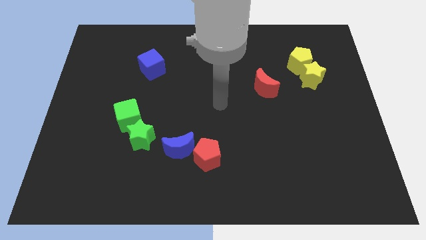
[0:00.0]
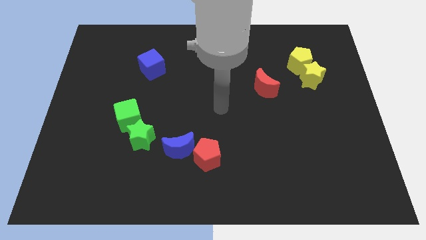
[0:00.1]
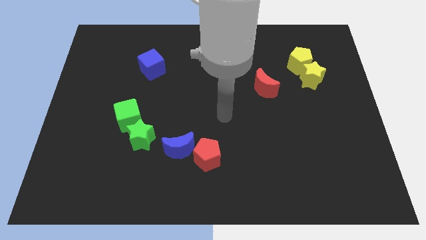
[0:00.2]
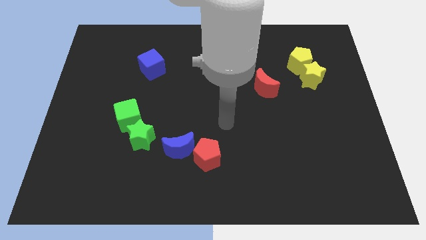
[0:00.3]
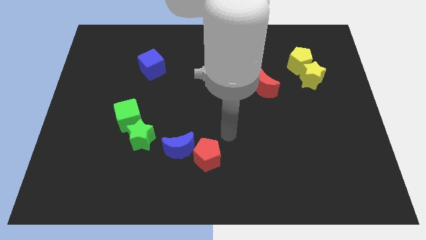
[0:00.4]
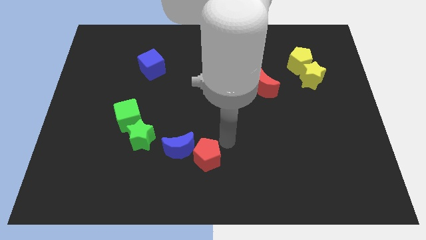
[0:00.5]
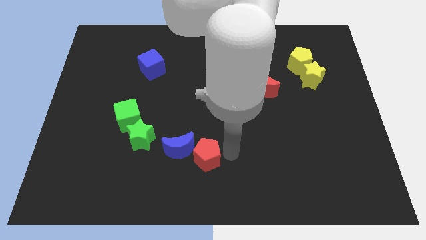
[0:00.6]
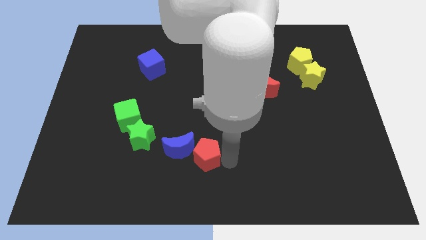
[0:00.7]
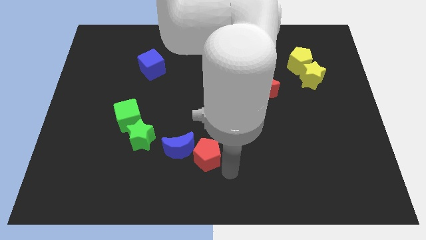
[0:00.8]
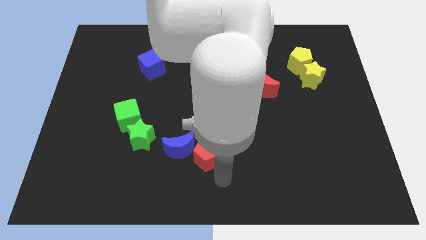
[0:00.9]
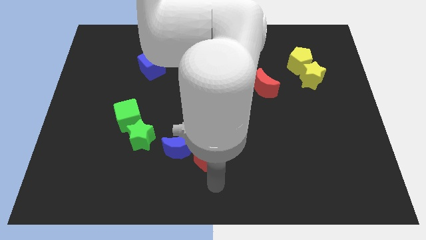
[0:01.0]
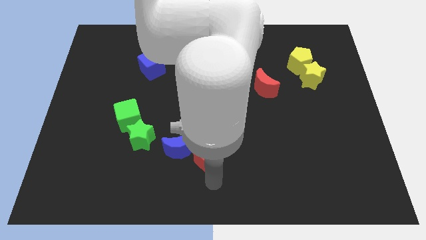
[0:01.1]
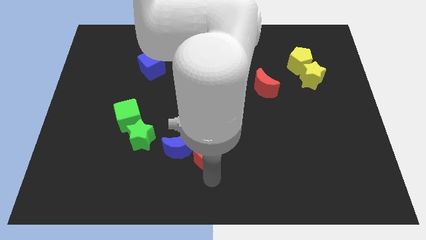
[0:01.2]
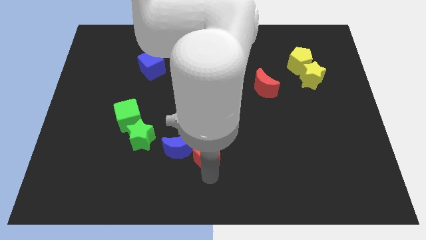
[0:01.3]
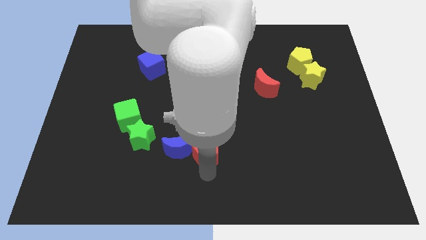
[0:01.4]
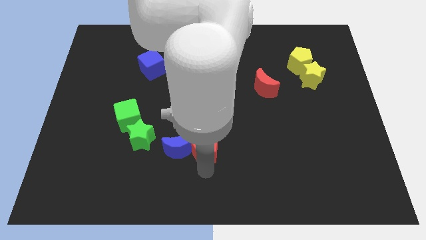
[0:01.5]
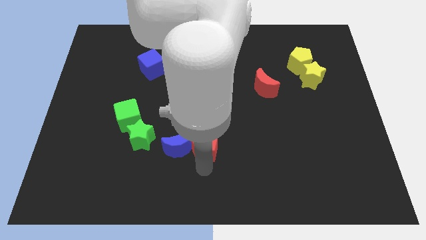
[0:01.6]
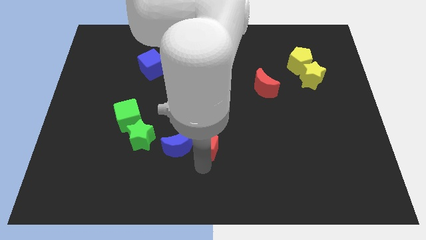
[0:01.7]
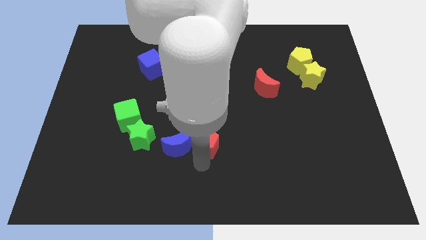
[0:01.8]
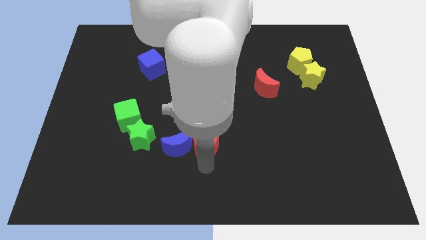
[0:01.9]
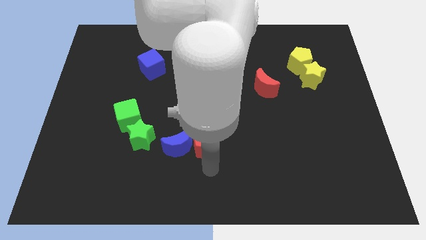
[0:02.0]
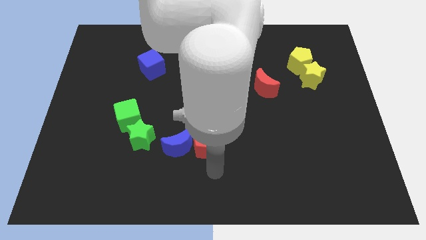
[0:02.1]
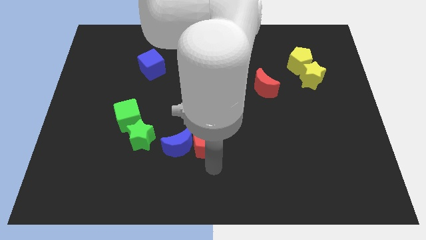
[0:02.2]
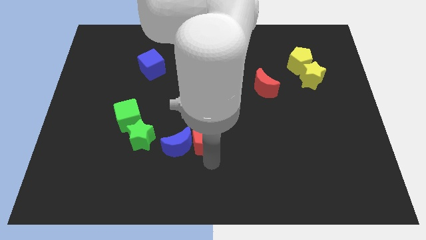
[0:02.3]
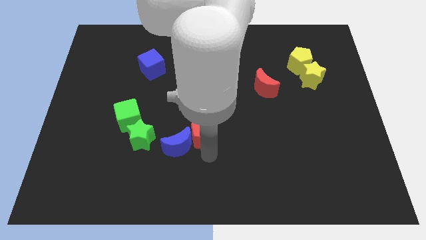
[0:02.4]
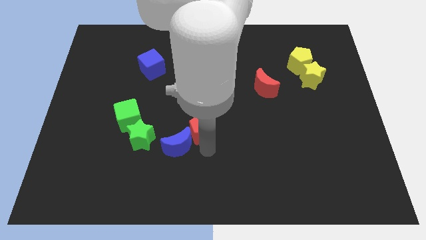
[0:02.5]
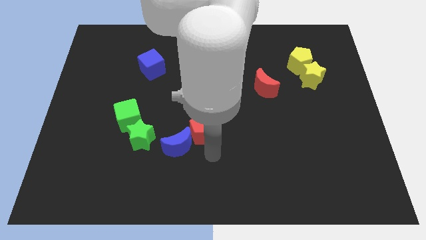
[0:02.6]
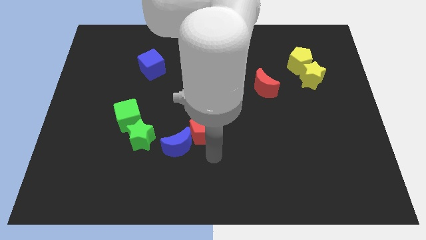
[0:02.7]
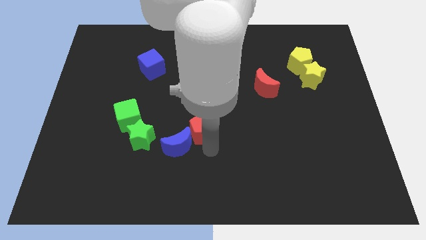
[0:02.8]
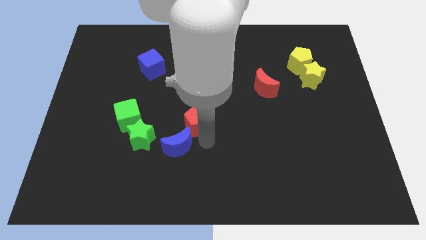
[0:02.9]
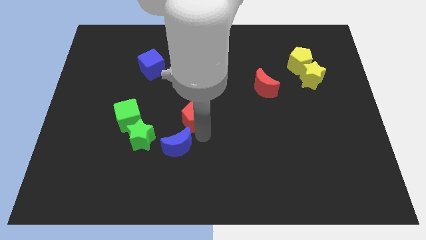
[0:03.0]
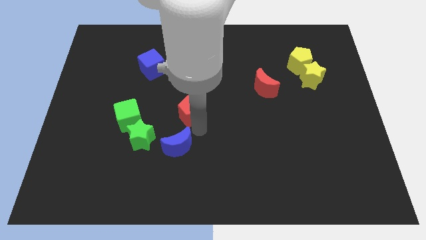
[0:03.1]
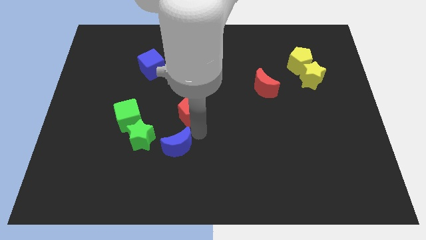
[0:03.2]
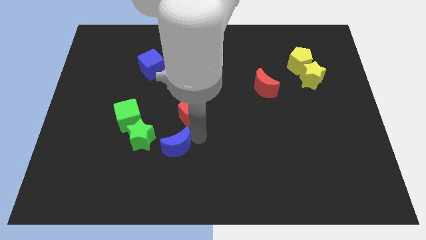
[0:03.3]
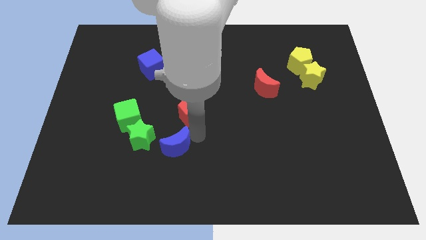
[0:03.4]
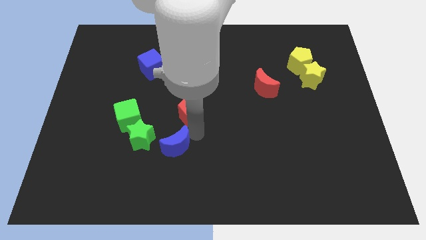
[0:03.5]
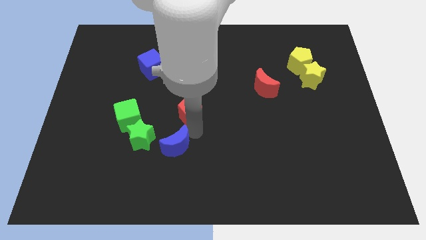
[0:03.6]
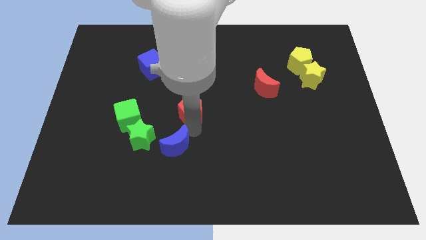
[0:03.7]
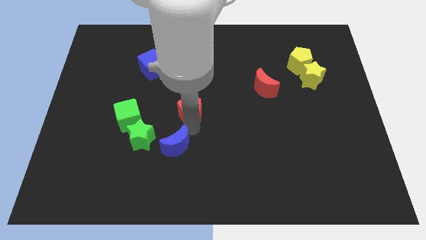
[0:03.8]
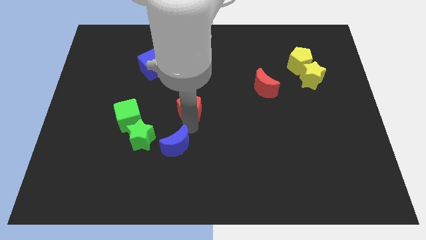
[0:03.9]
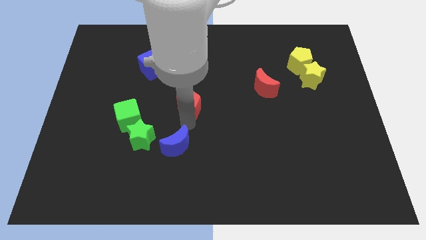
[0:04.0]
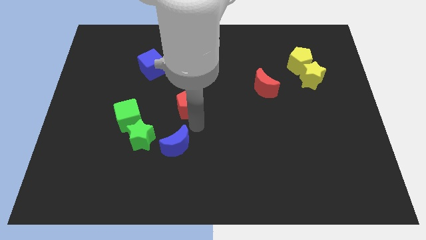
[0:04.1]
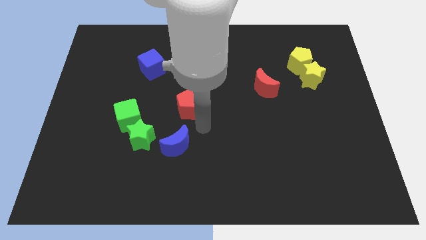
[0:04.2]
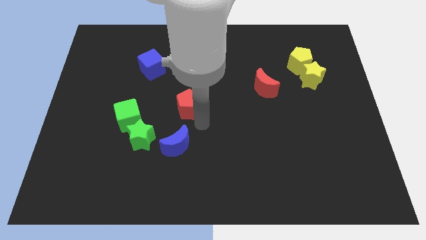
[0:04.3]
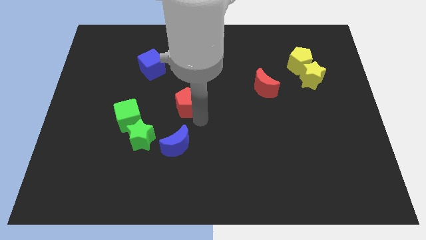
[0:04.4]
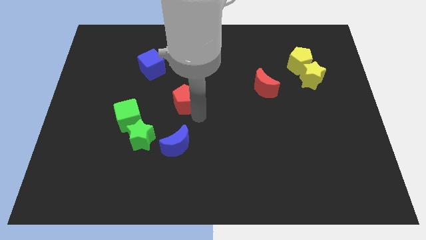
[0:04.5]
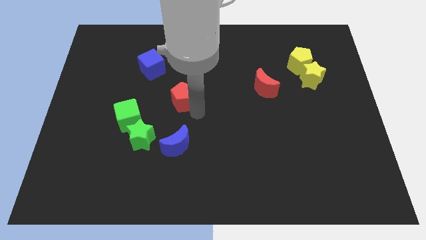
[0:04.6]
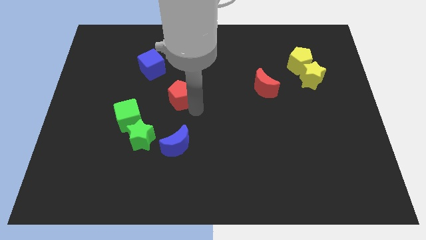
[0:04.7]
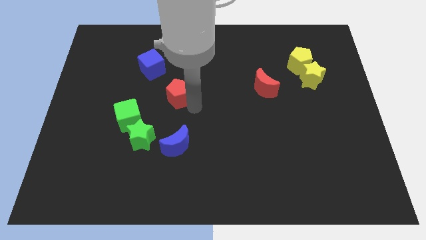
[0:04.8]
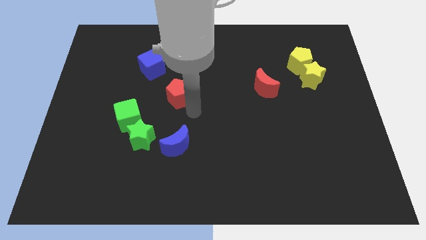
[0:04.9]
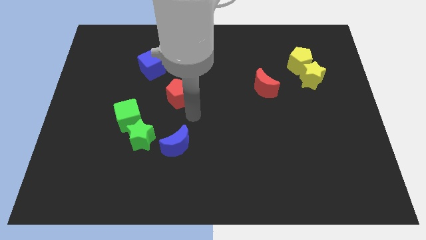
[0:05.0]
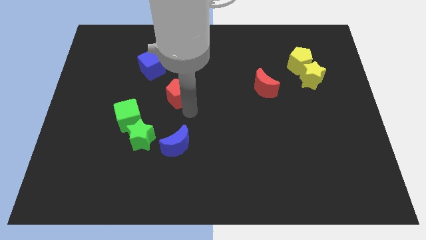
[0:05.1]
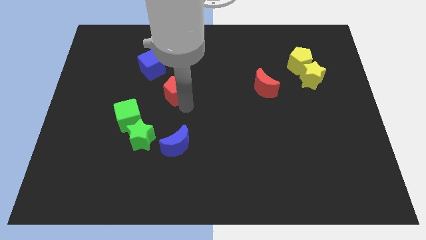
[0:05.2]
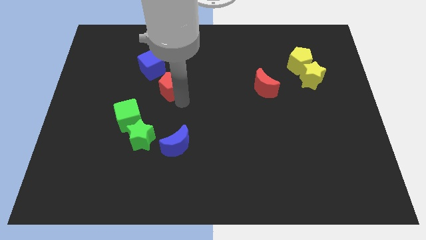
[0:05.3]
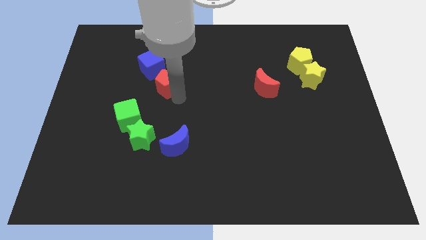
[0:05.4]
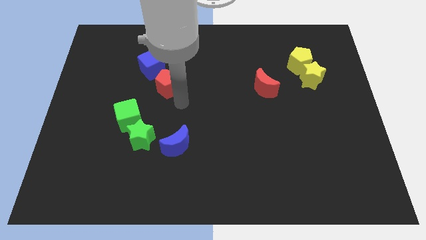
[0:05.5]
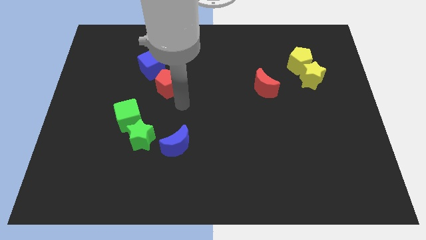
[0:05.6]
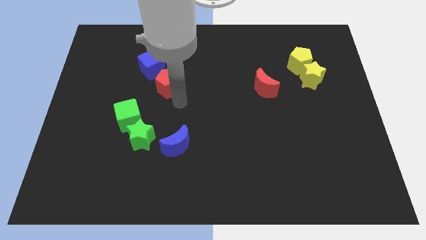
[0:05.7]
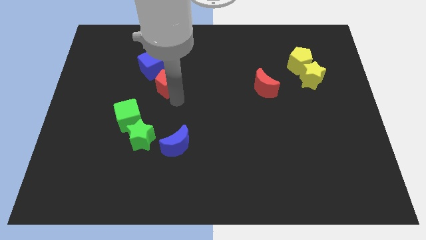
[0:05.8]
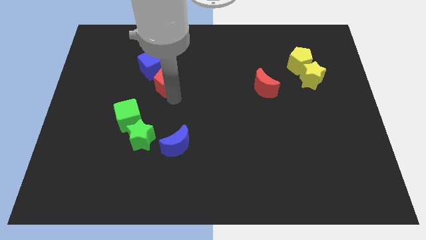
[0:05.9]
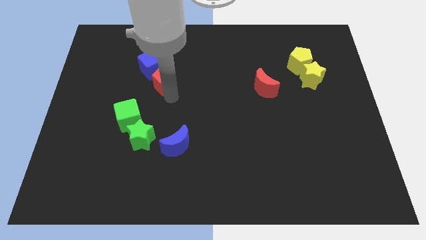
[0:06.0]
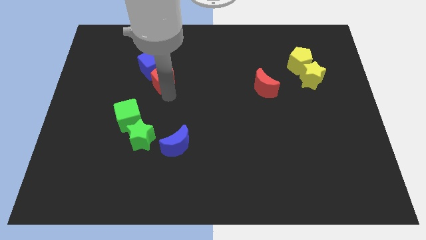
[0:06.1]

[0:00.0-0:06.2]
move the red pentagon close to the blue cube

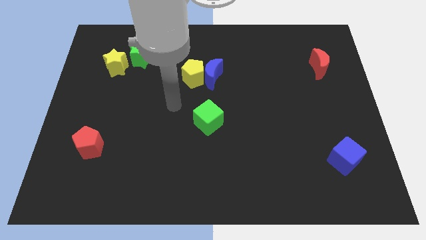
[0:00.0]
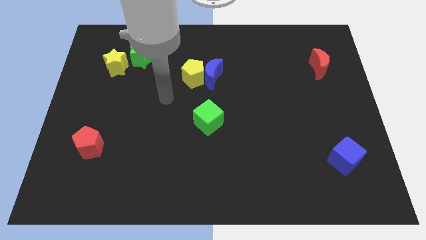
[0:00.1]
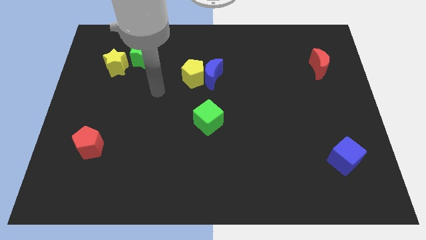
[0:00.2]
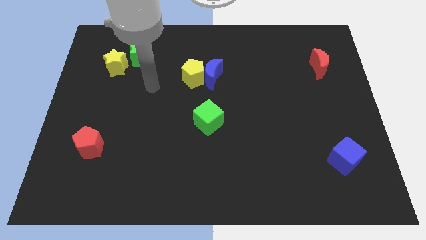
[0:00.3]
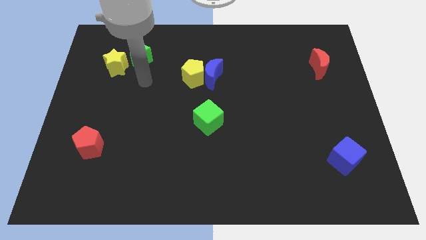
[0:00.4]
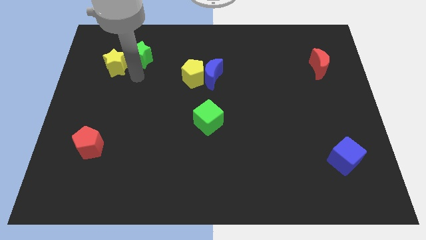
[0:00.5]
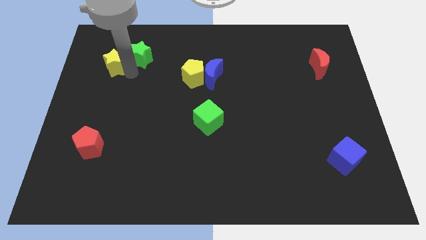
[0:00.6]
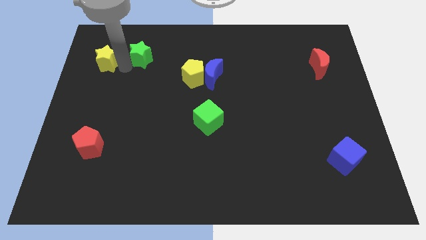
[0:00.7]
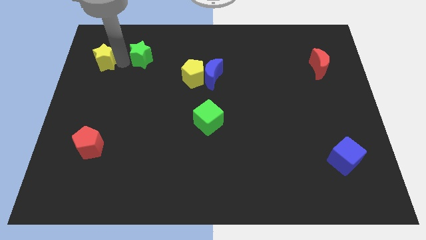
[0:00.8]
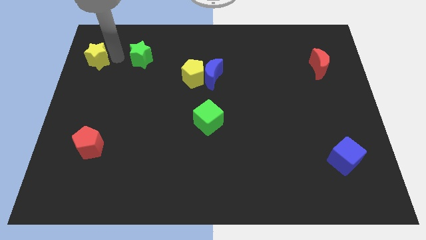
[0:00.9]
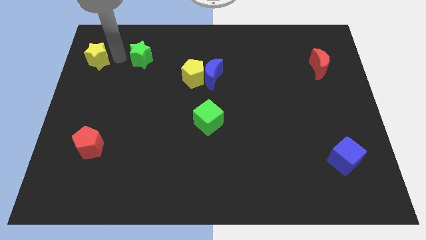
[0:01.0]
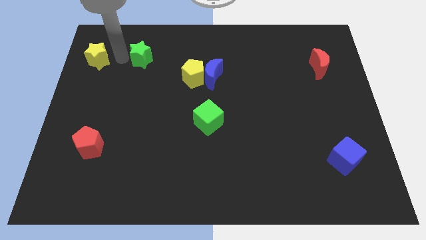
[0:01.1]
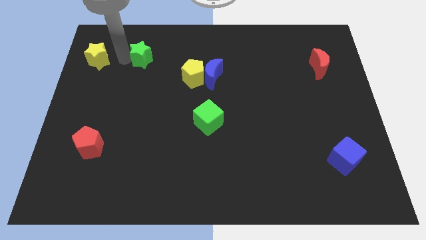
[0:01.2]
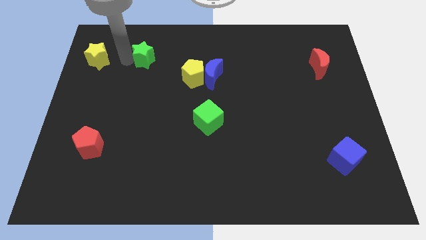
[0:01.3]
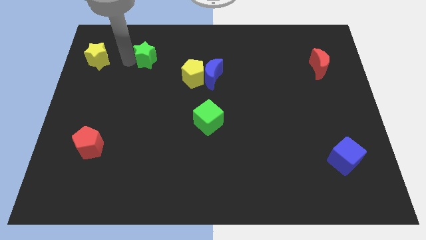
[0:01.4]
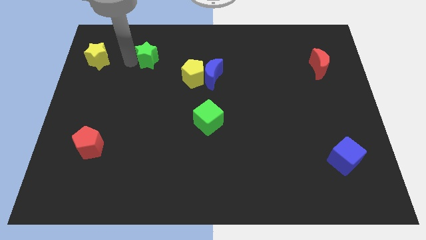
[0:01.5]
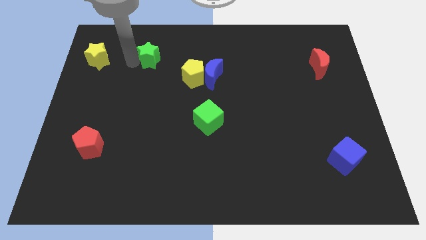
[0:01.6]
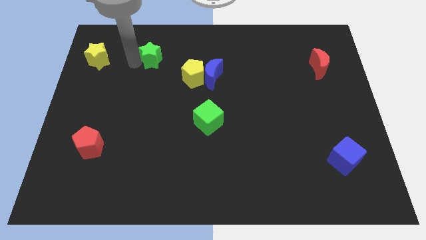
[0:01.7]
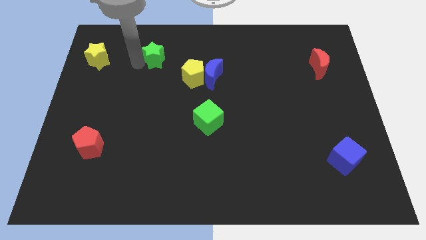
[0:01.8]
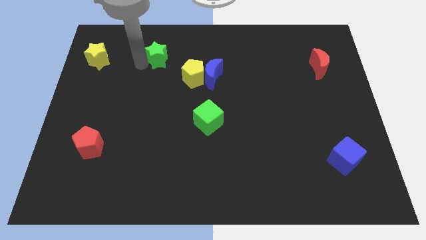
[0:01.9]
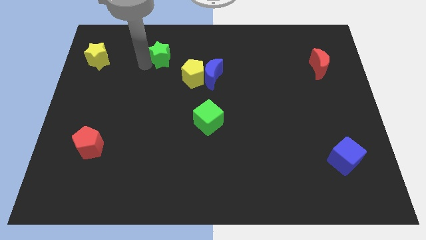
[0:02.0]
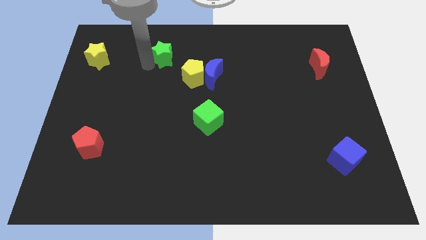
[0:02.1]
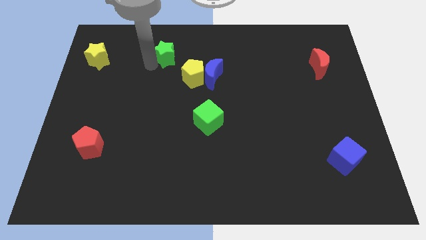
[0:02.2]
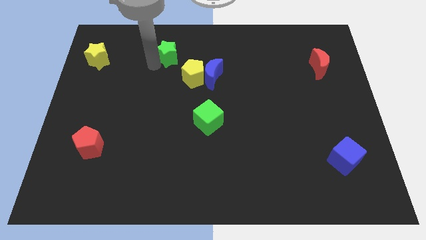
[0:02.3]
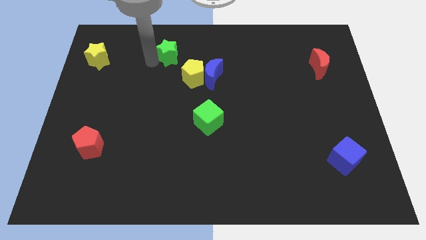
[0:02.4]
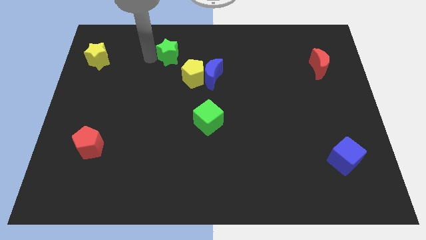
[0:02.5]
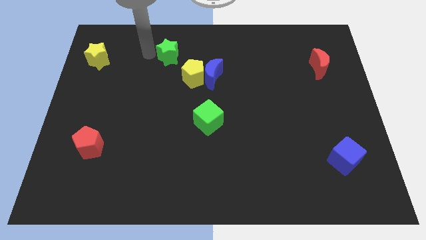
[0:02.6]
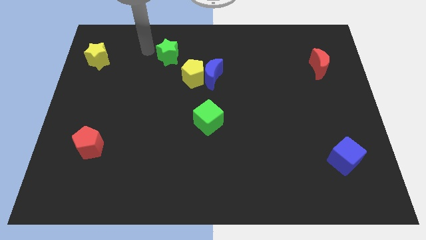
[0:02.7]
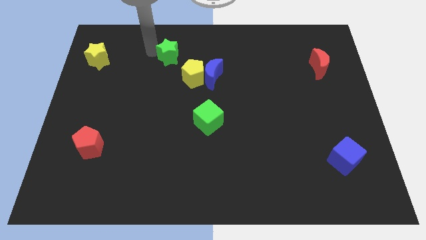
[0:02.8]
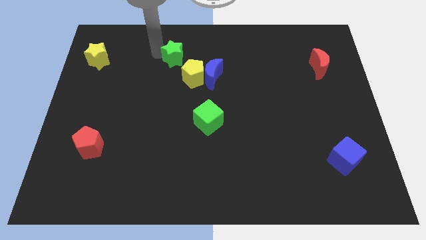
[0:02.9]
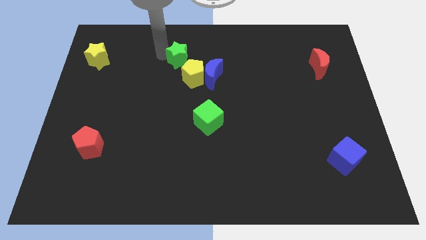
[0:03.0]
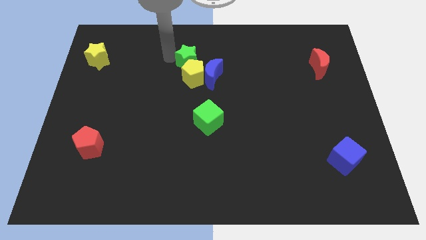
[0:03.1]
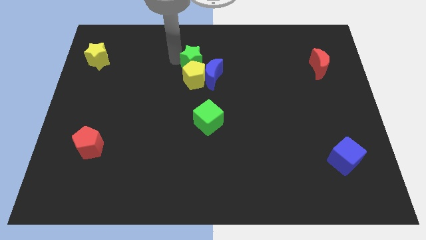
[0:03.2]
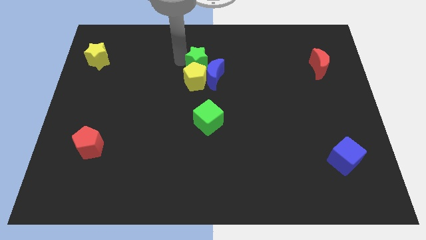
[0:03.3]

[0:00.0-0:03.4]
put the green star towards the blue moon
